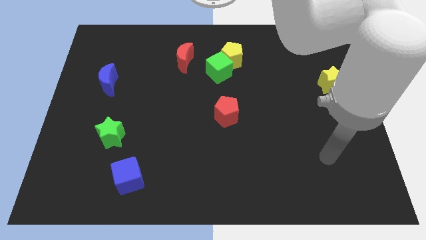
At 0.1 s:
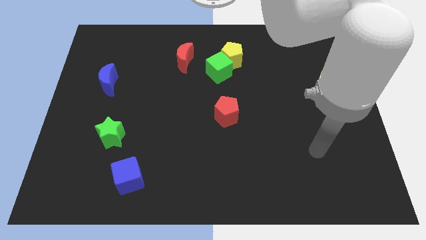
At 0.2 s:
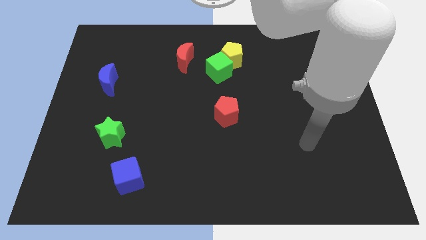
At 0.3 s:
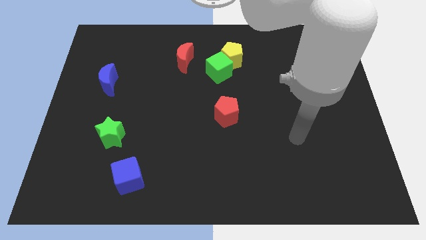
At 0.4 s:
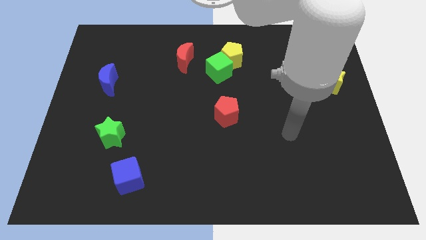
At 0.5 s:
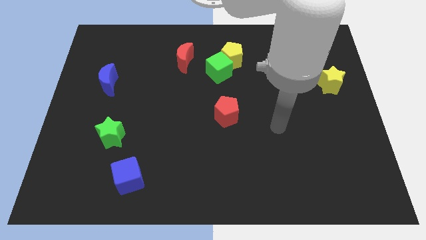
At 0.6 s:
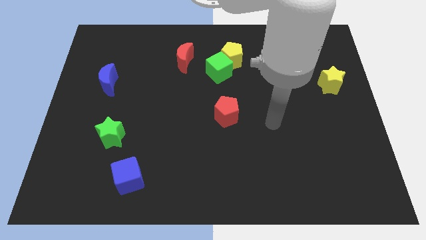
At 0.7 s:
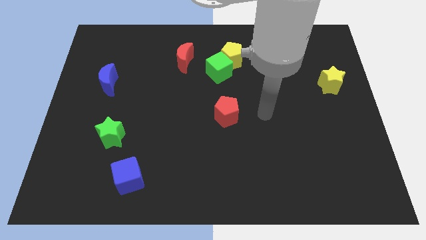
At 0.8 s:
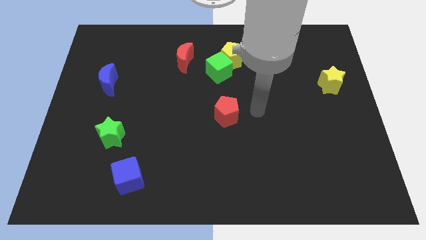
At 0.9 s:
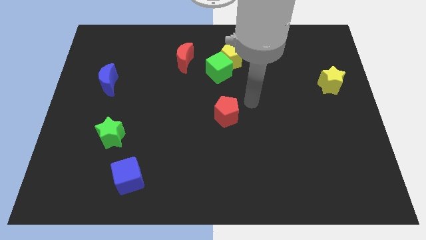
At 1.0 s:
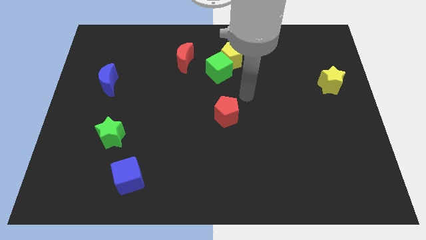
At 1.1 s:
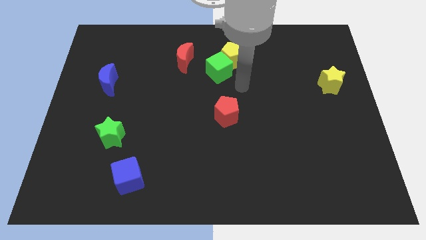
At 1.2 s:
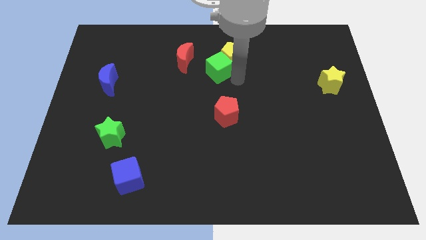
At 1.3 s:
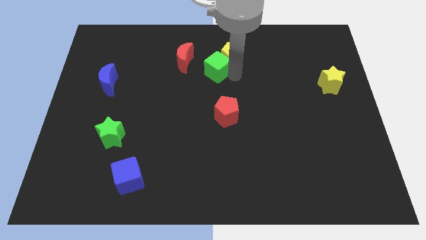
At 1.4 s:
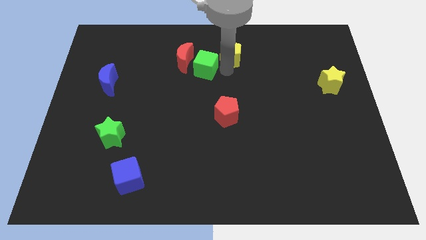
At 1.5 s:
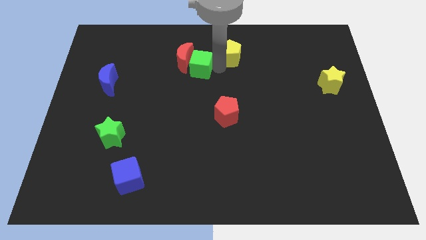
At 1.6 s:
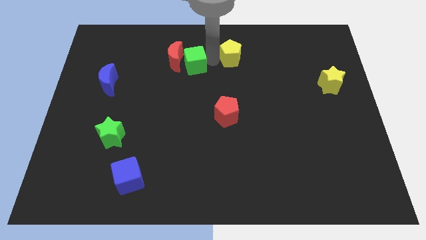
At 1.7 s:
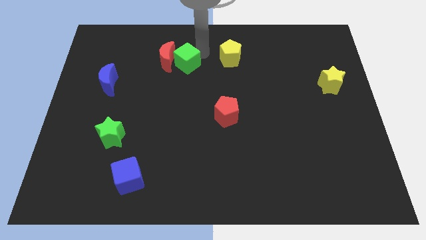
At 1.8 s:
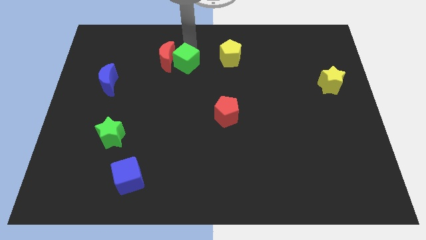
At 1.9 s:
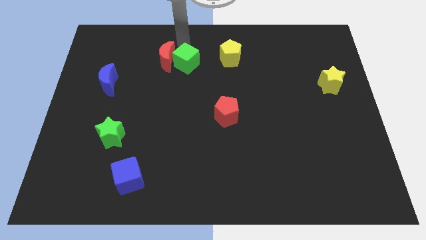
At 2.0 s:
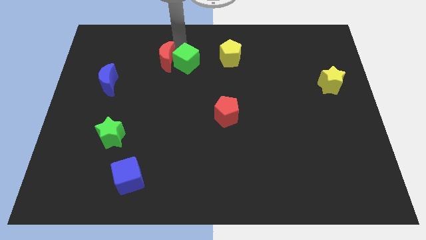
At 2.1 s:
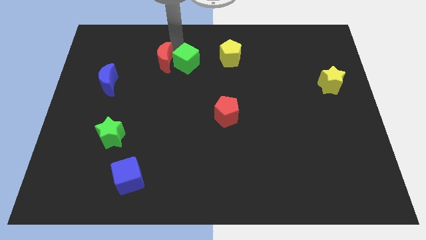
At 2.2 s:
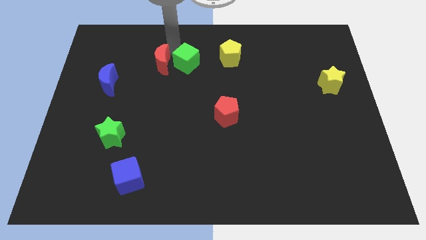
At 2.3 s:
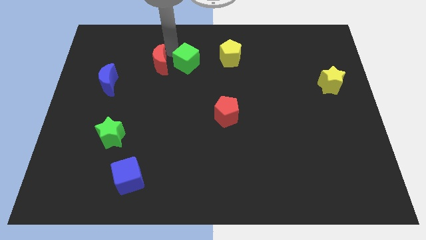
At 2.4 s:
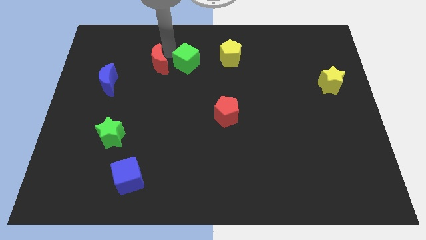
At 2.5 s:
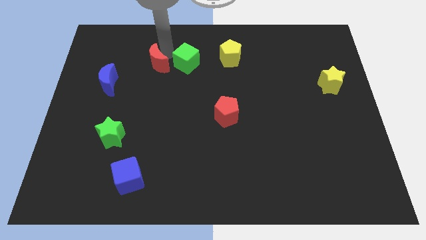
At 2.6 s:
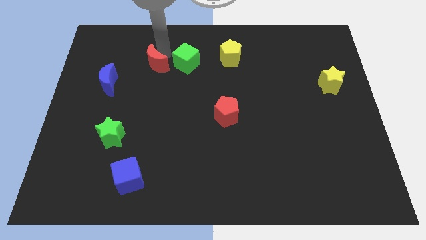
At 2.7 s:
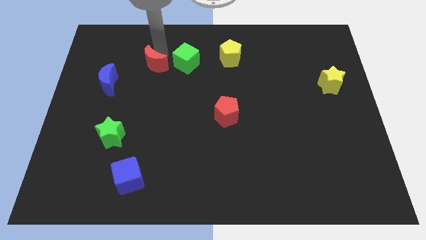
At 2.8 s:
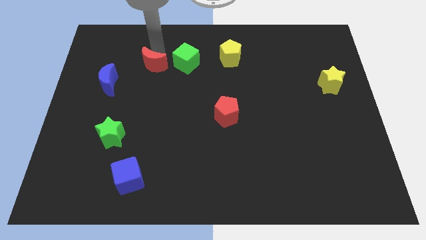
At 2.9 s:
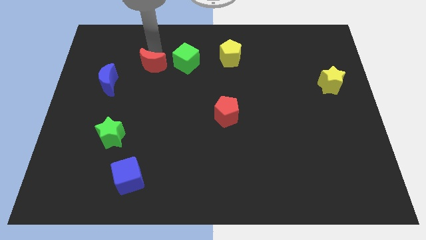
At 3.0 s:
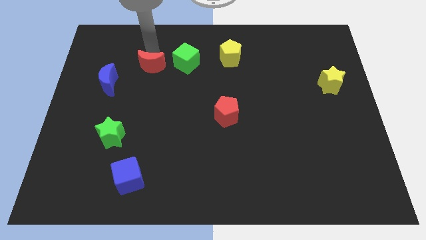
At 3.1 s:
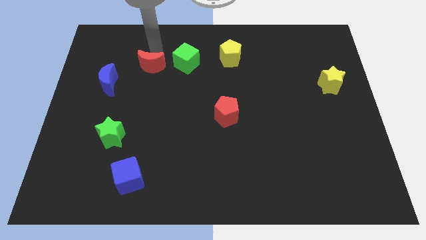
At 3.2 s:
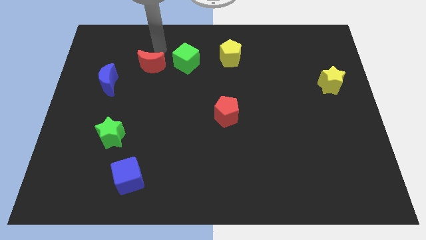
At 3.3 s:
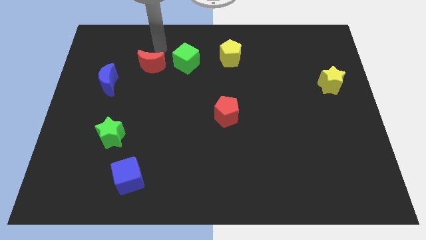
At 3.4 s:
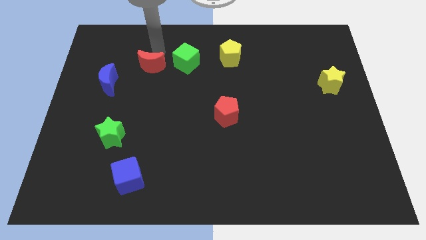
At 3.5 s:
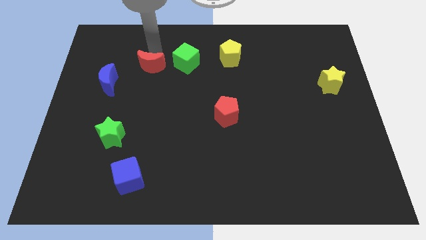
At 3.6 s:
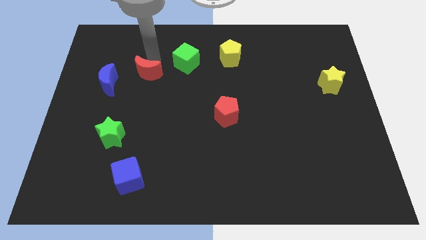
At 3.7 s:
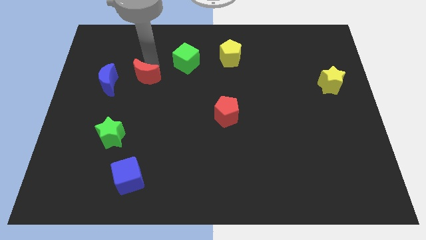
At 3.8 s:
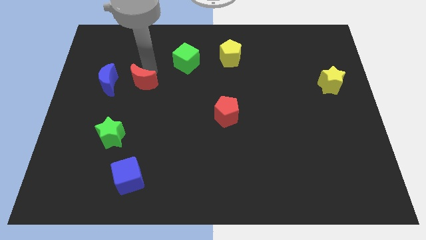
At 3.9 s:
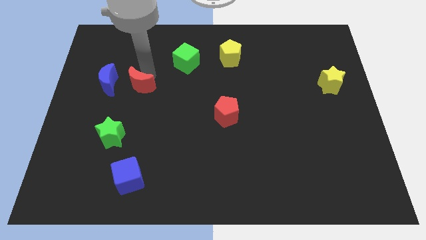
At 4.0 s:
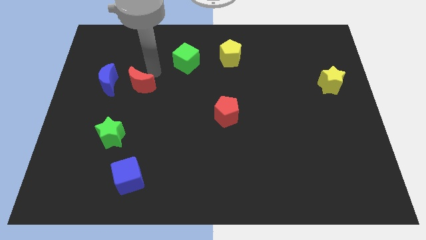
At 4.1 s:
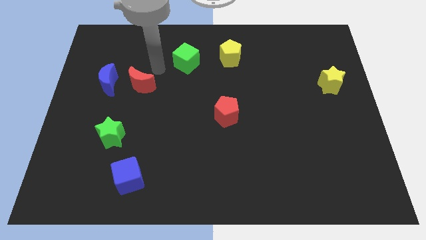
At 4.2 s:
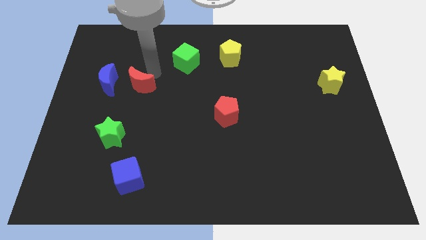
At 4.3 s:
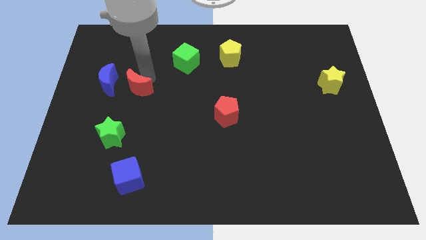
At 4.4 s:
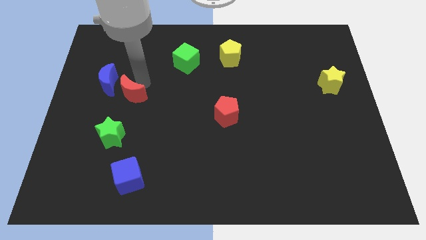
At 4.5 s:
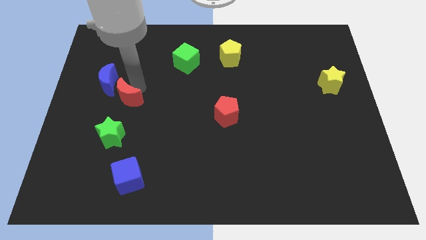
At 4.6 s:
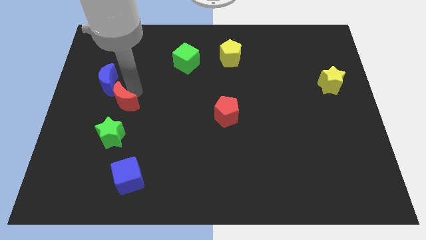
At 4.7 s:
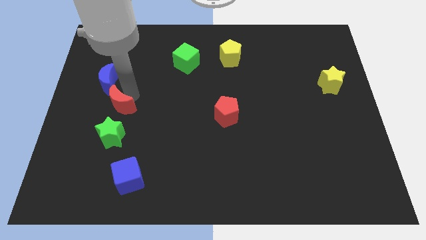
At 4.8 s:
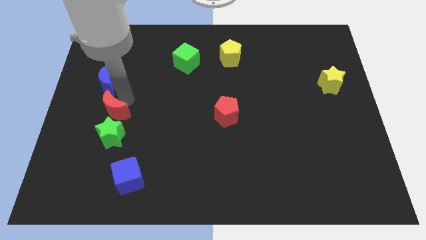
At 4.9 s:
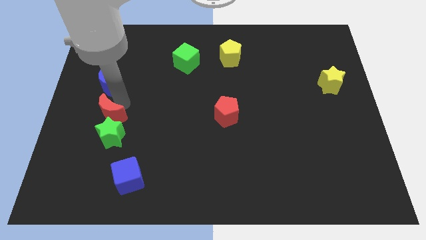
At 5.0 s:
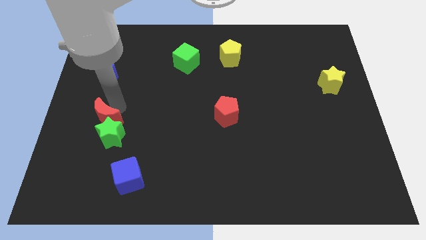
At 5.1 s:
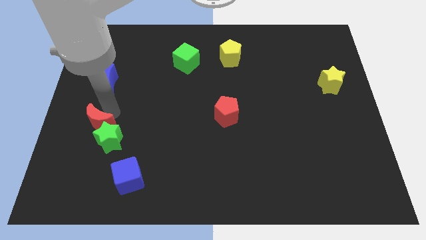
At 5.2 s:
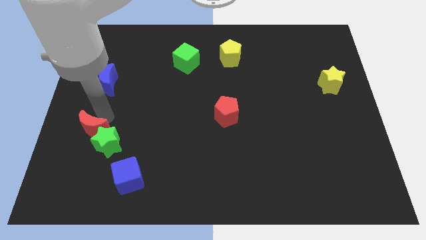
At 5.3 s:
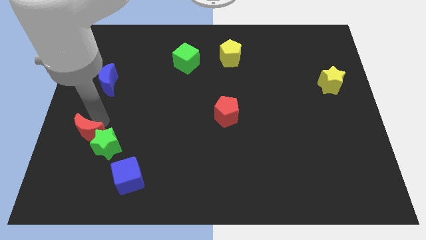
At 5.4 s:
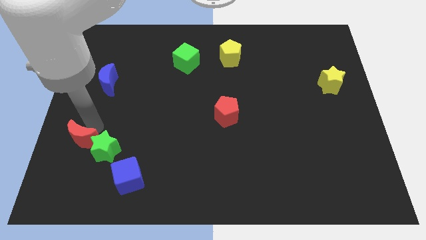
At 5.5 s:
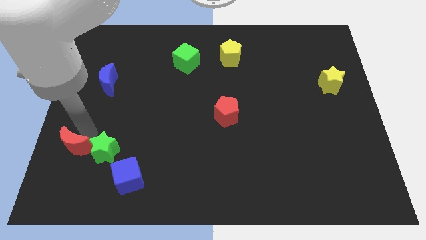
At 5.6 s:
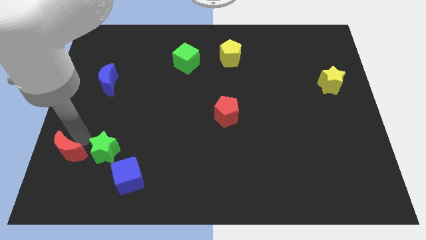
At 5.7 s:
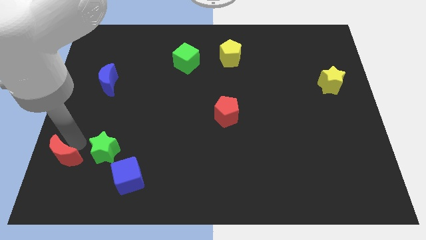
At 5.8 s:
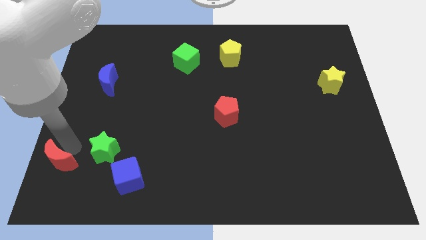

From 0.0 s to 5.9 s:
slide the red moon to the bottom left of the board
